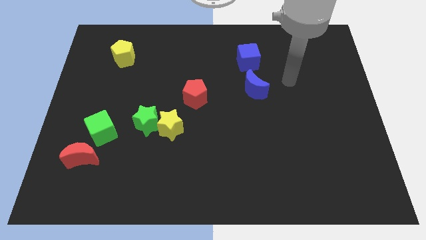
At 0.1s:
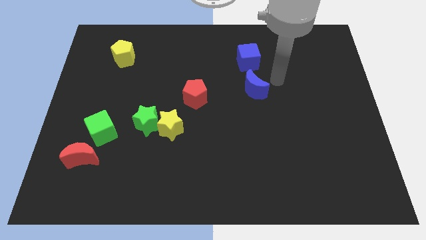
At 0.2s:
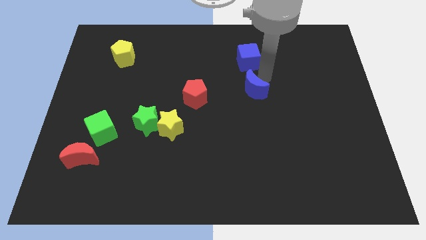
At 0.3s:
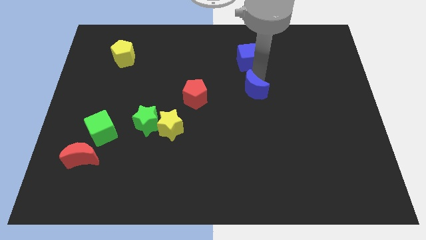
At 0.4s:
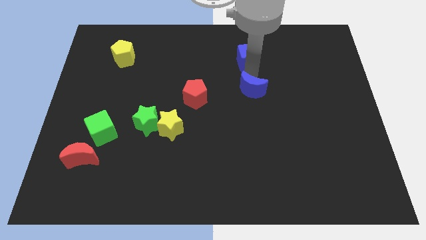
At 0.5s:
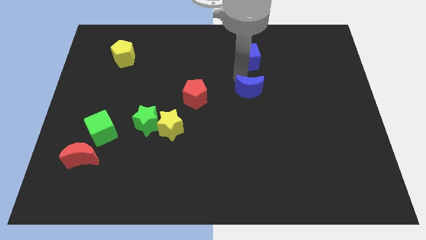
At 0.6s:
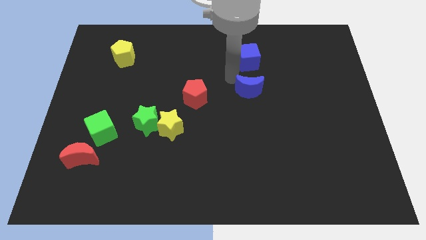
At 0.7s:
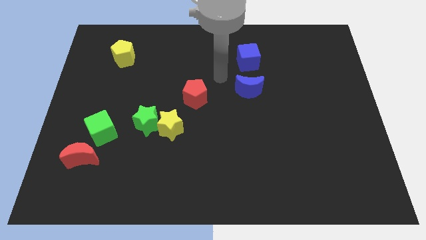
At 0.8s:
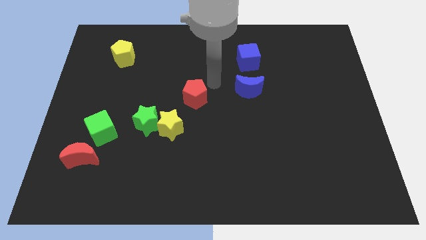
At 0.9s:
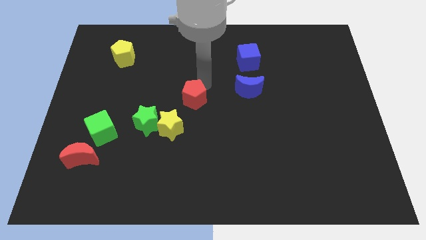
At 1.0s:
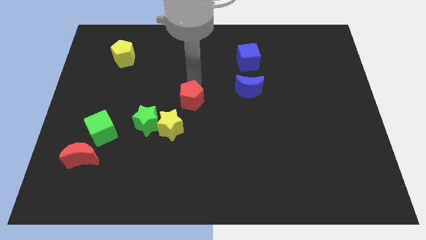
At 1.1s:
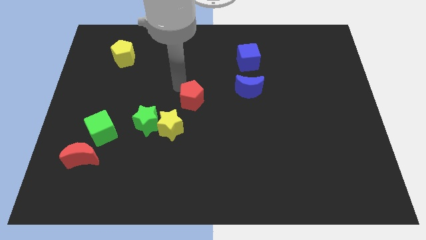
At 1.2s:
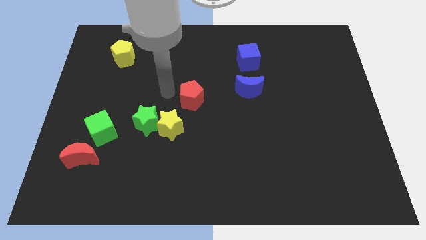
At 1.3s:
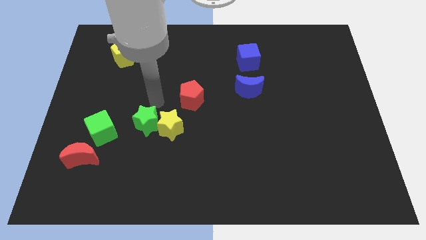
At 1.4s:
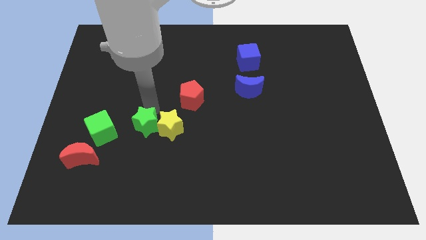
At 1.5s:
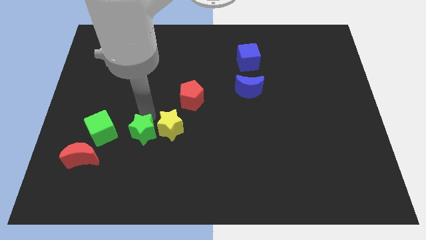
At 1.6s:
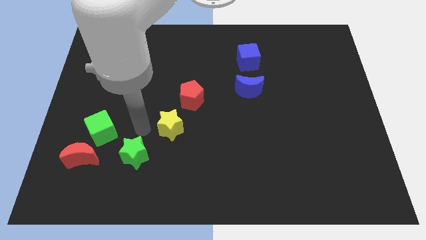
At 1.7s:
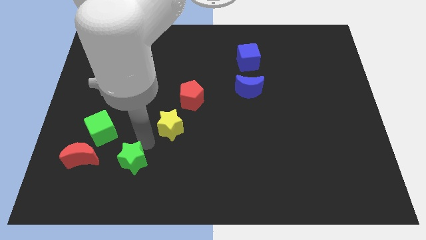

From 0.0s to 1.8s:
pull the yellow star apart from the green star

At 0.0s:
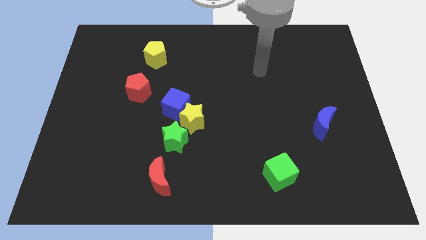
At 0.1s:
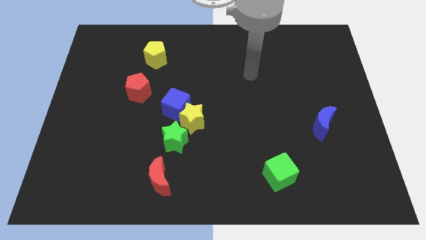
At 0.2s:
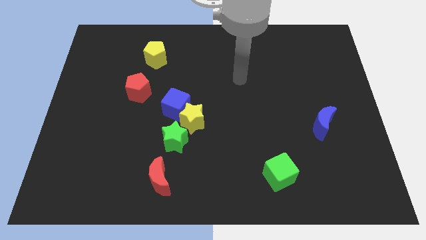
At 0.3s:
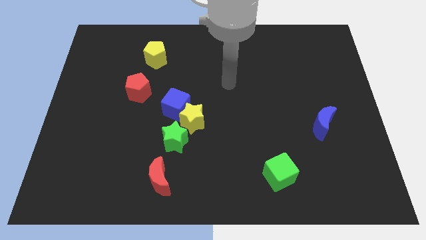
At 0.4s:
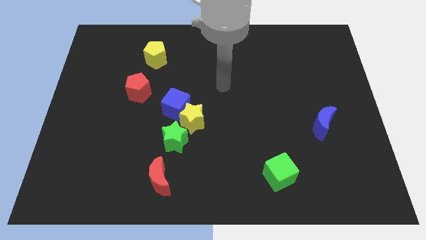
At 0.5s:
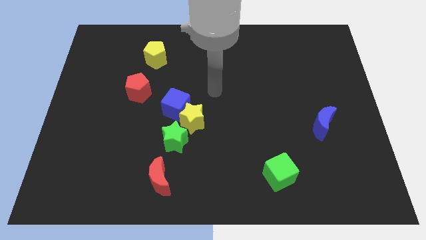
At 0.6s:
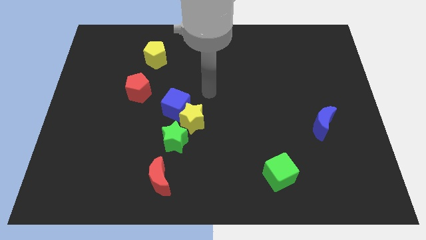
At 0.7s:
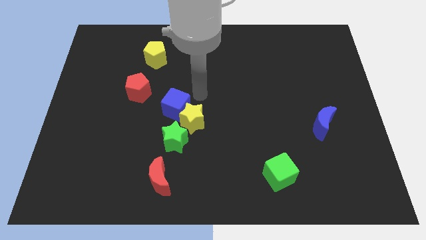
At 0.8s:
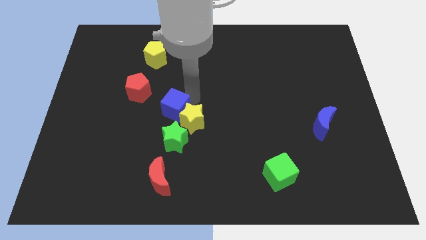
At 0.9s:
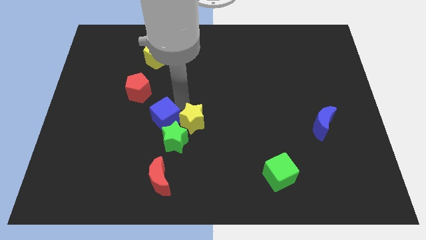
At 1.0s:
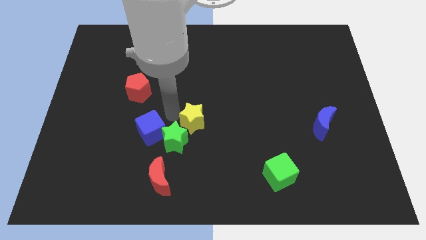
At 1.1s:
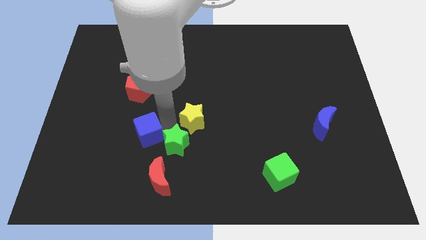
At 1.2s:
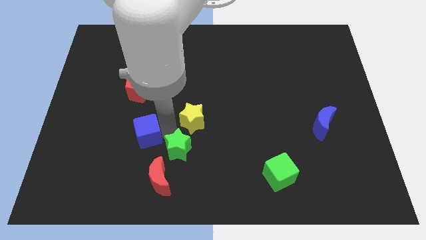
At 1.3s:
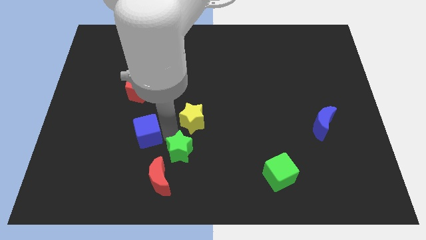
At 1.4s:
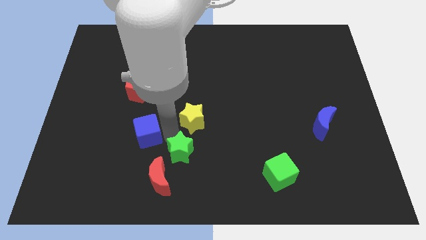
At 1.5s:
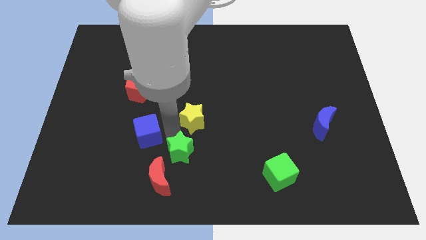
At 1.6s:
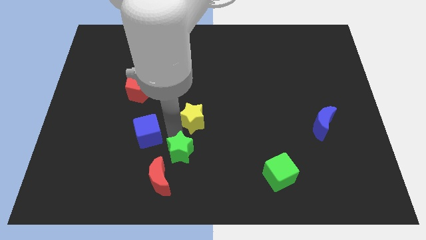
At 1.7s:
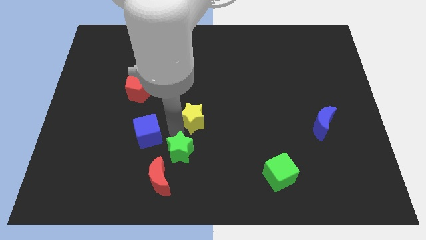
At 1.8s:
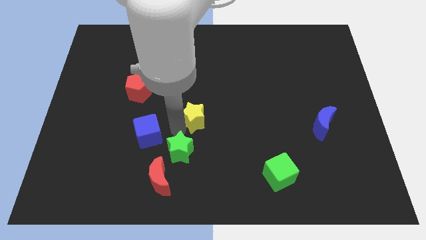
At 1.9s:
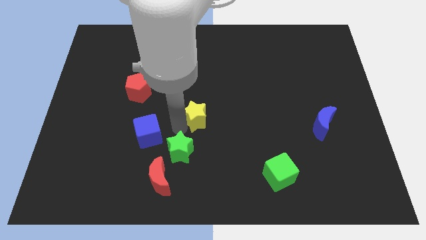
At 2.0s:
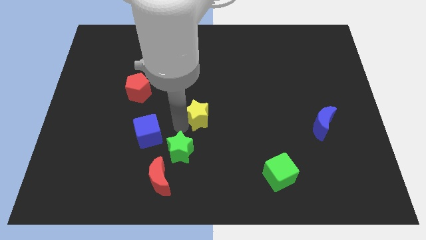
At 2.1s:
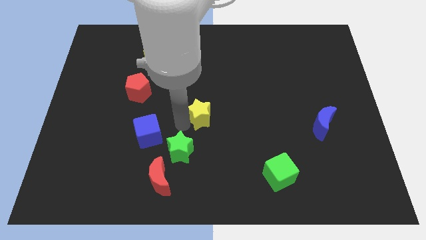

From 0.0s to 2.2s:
pull the yellow star apart from the blue cube and green star

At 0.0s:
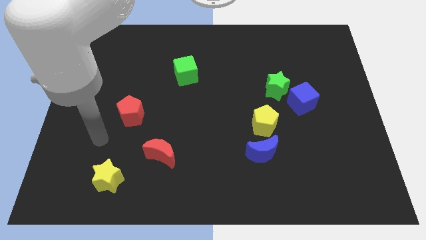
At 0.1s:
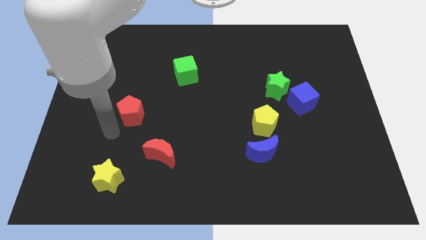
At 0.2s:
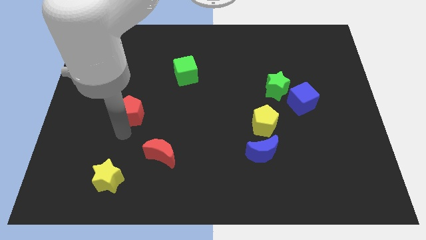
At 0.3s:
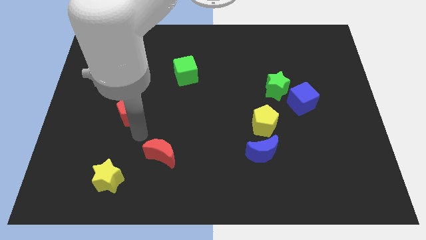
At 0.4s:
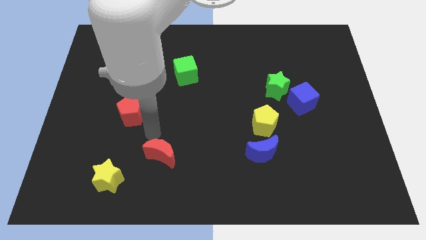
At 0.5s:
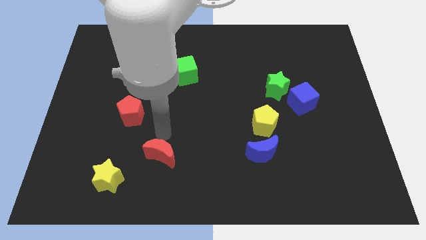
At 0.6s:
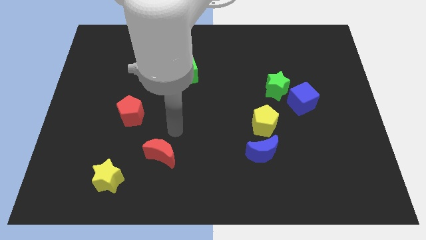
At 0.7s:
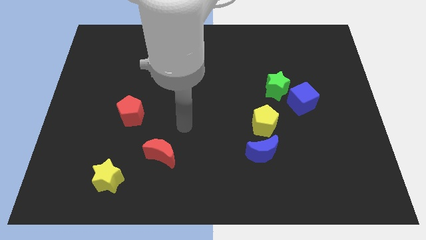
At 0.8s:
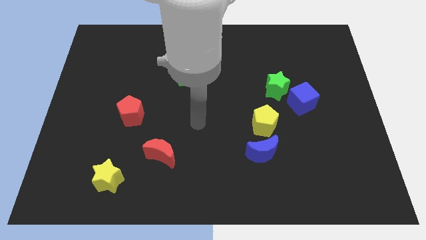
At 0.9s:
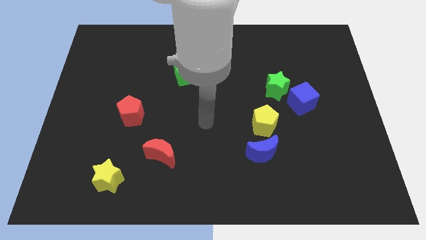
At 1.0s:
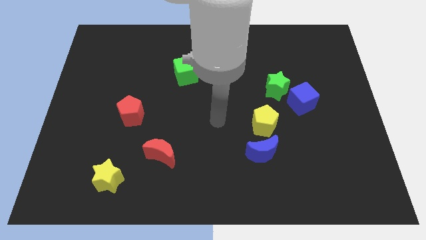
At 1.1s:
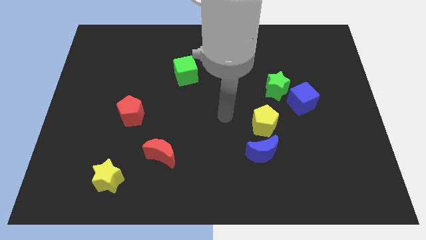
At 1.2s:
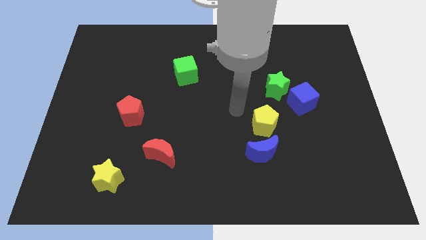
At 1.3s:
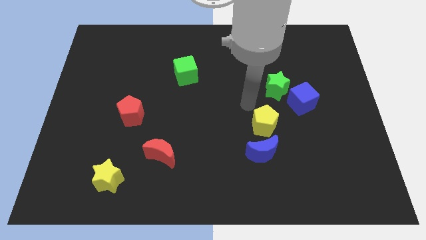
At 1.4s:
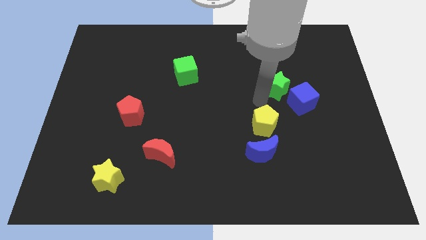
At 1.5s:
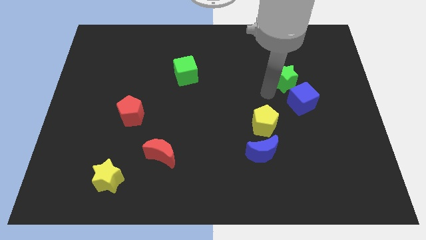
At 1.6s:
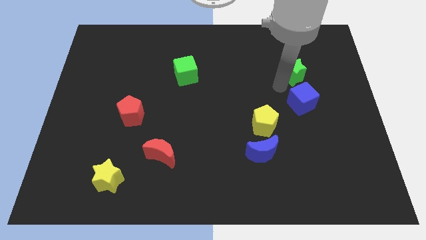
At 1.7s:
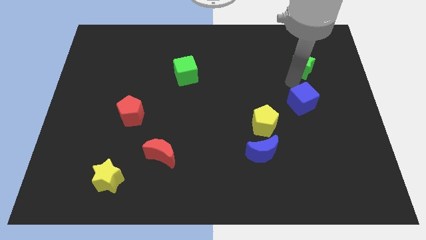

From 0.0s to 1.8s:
separate the blue cube from the green star

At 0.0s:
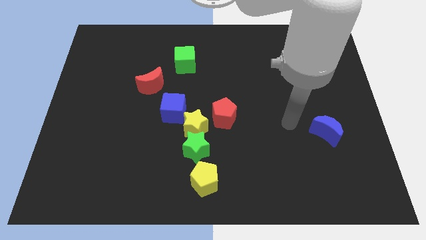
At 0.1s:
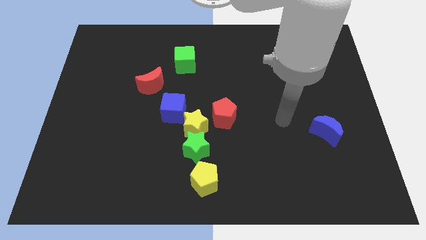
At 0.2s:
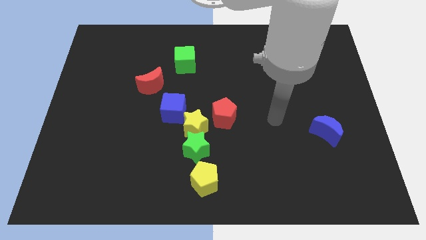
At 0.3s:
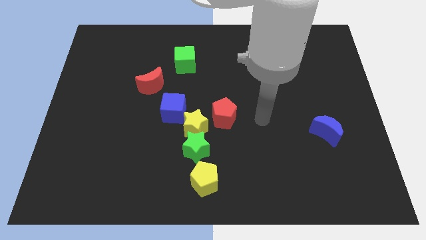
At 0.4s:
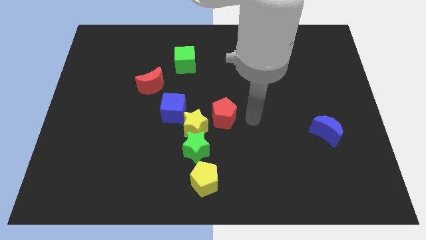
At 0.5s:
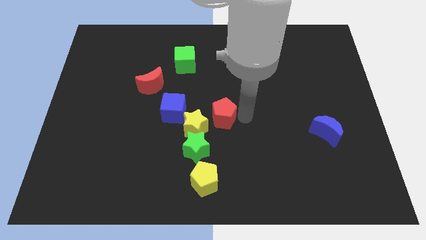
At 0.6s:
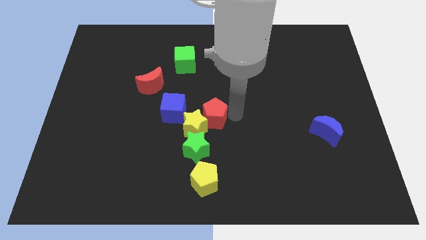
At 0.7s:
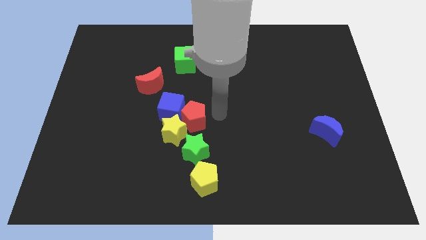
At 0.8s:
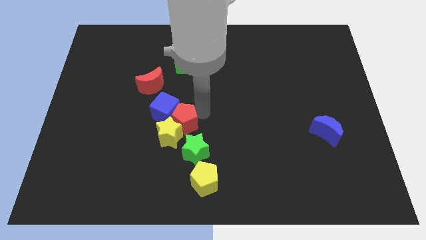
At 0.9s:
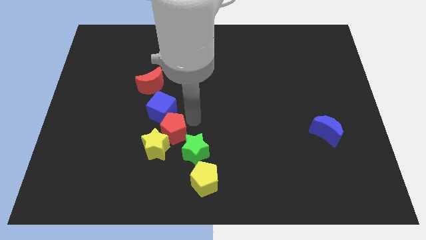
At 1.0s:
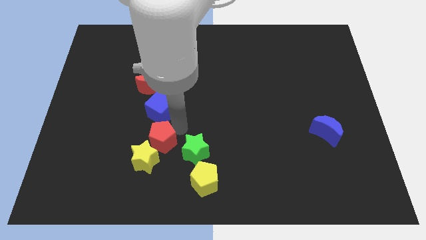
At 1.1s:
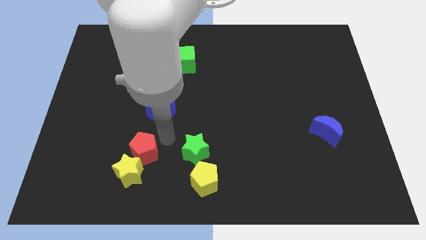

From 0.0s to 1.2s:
pull the yellow star apart from the green star, blue cube, and red pentagon

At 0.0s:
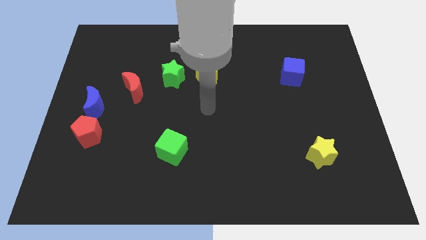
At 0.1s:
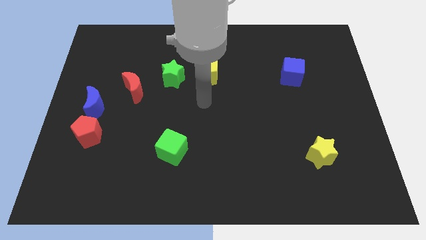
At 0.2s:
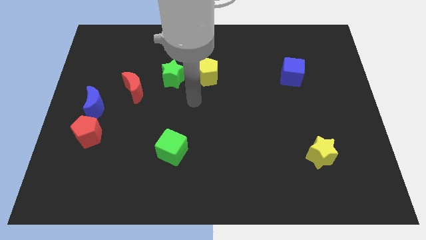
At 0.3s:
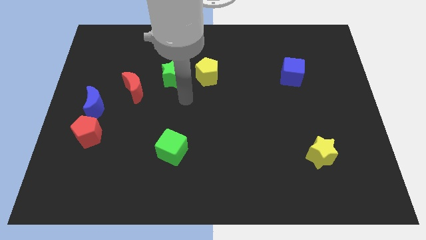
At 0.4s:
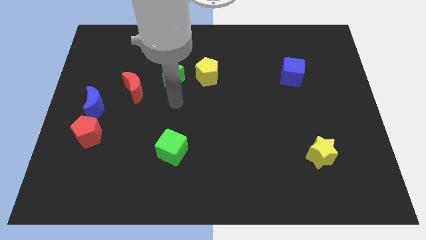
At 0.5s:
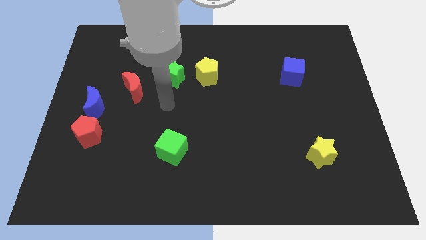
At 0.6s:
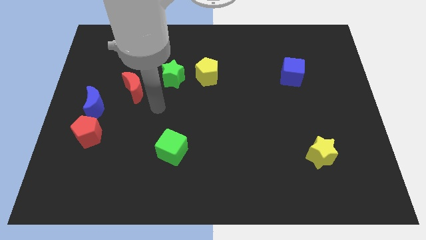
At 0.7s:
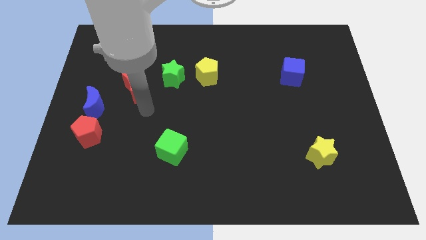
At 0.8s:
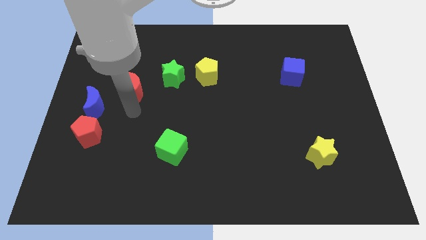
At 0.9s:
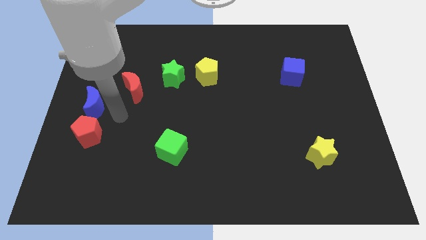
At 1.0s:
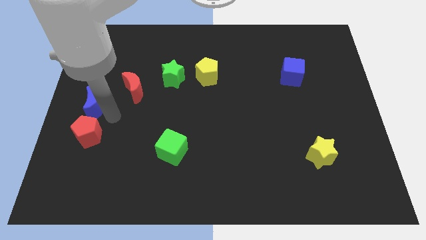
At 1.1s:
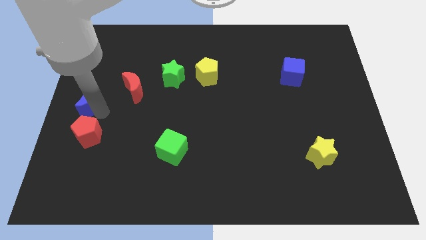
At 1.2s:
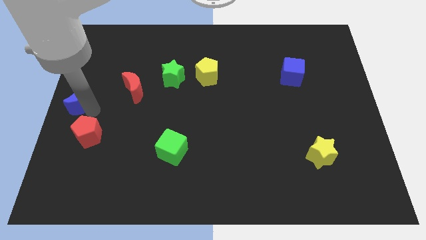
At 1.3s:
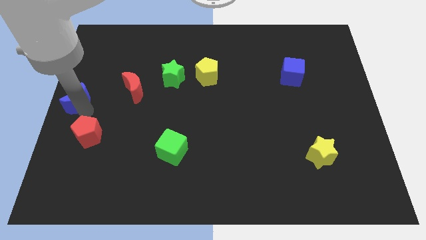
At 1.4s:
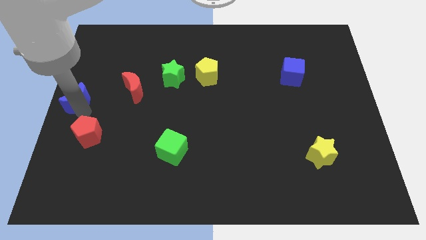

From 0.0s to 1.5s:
pull the red pentagon apart from the blue moon

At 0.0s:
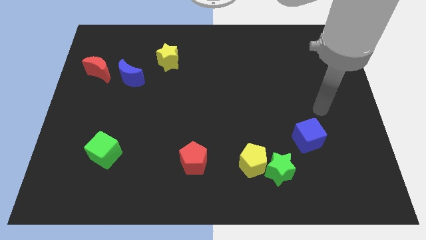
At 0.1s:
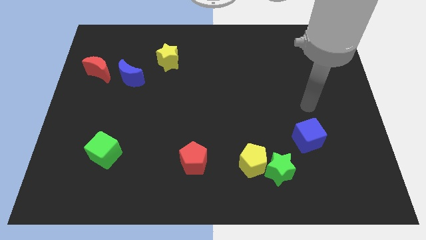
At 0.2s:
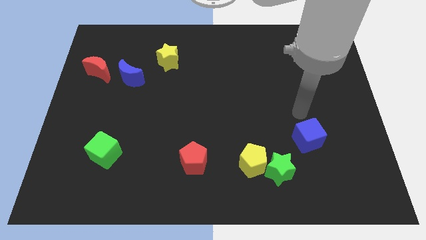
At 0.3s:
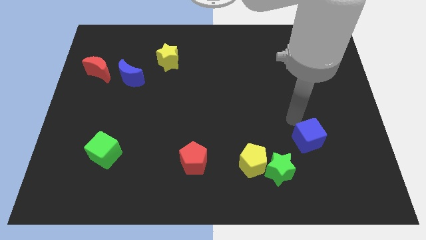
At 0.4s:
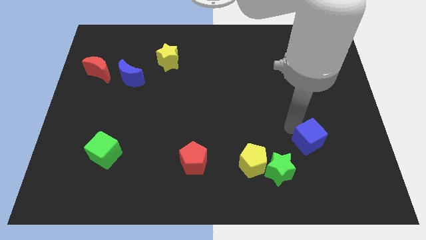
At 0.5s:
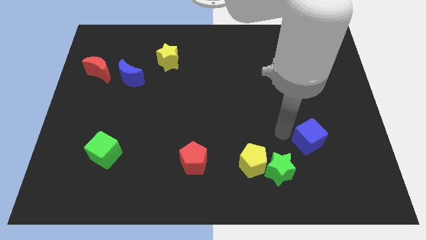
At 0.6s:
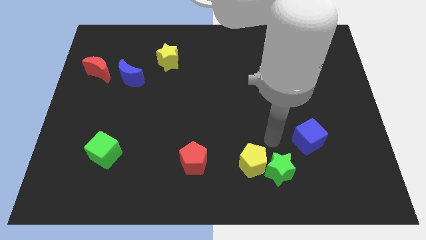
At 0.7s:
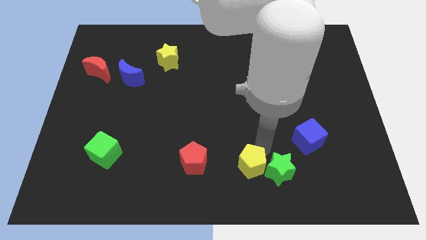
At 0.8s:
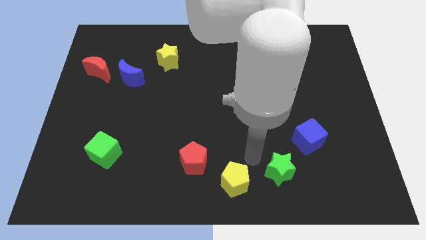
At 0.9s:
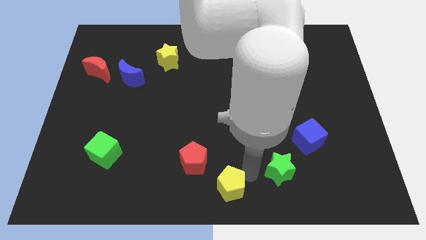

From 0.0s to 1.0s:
pull the green star apart from the yellow pentagon
